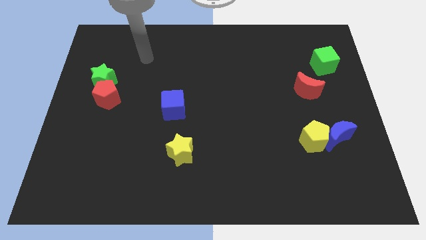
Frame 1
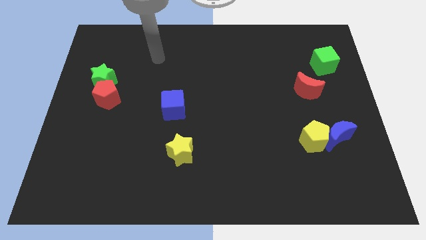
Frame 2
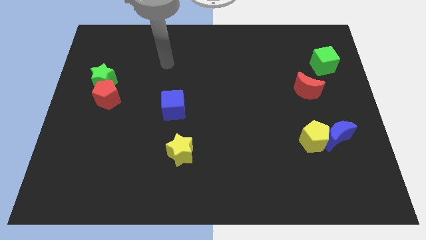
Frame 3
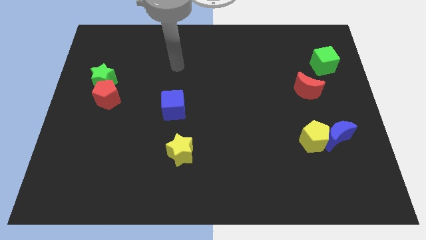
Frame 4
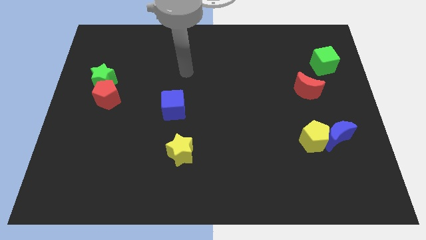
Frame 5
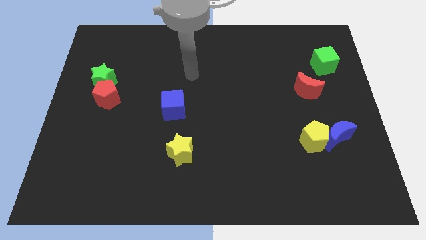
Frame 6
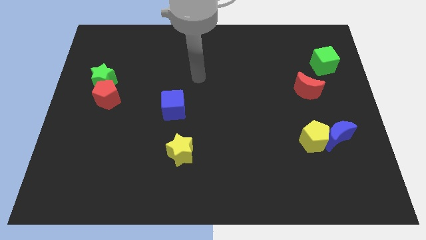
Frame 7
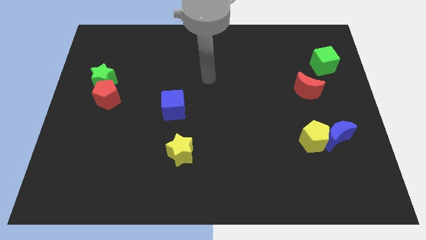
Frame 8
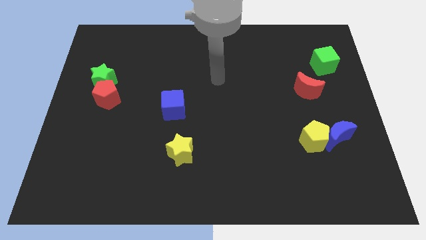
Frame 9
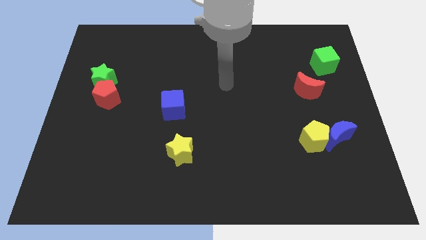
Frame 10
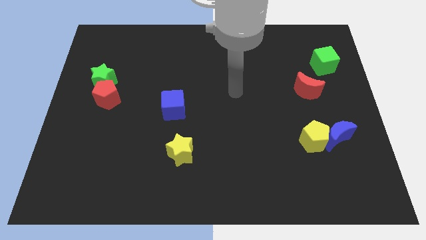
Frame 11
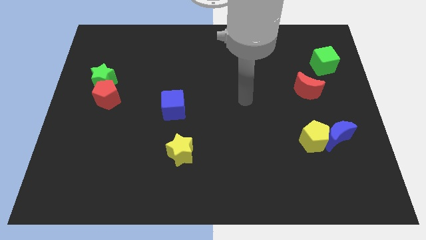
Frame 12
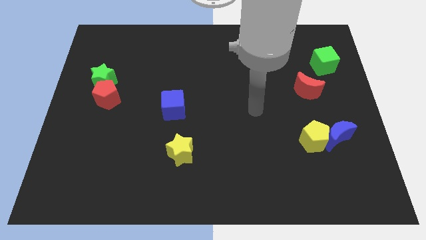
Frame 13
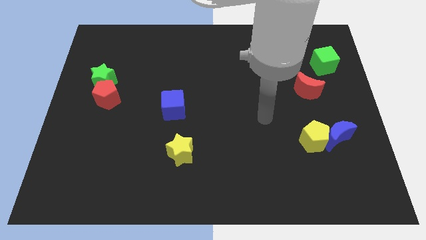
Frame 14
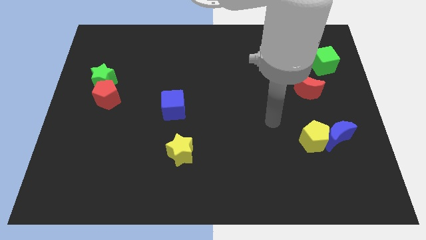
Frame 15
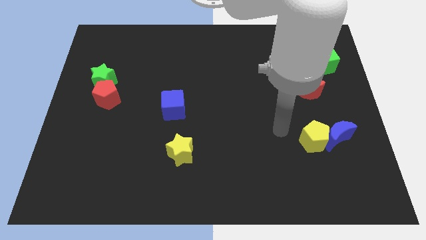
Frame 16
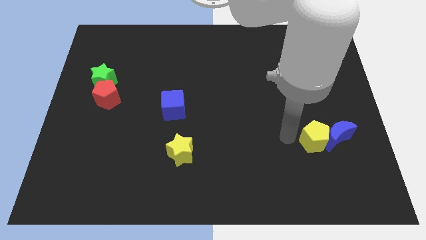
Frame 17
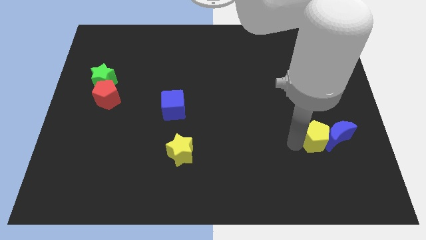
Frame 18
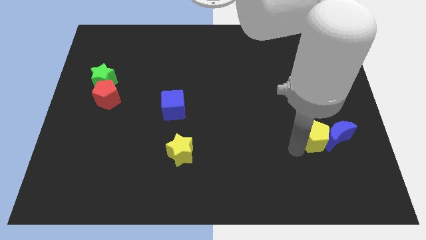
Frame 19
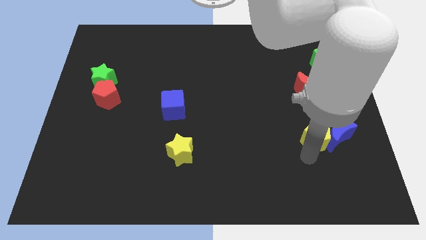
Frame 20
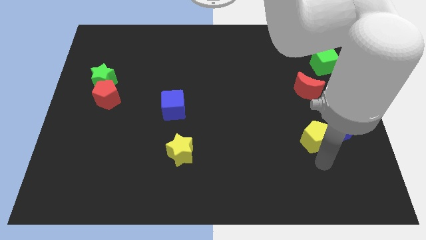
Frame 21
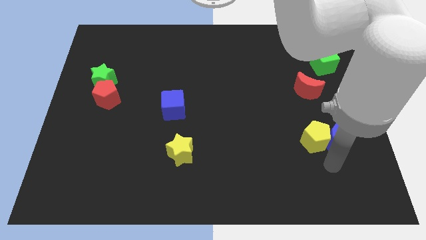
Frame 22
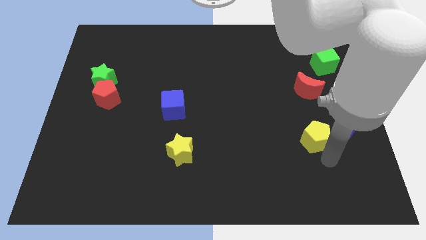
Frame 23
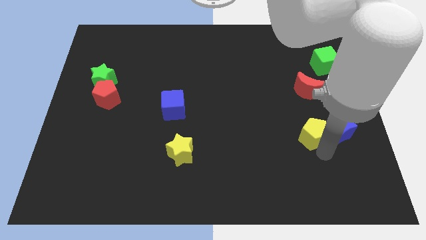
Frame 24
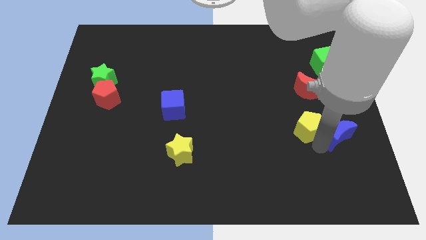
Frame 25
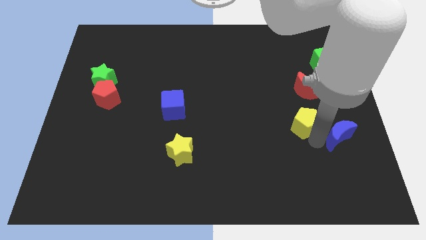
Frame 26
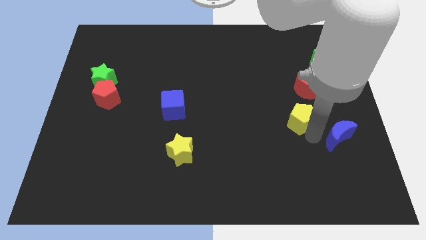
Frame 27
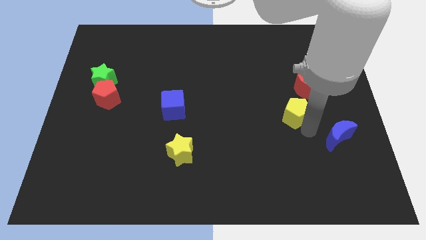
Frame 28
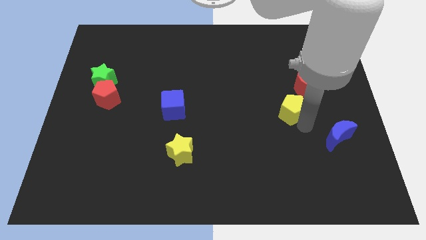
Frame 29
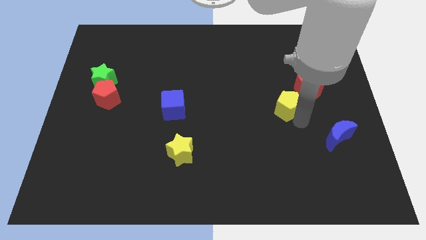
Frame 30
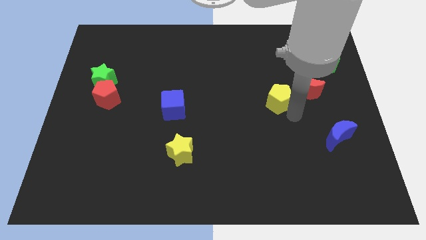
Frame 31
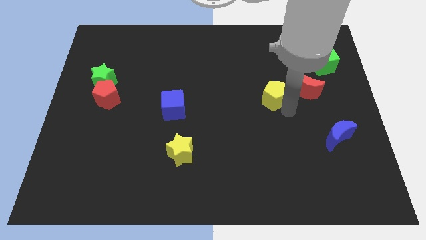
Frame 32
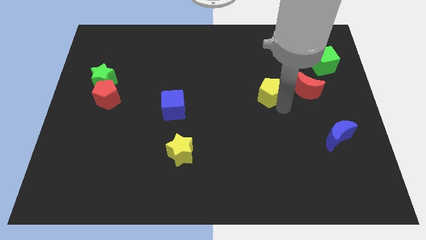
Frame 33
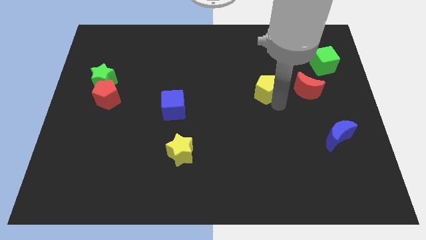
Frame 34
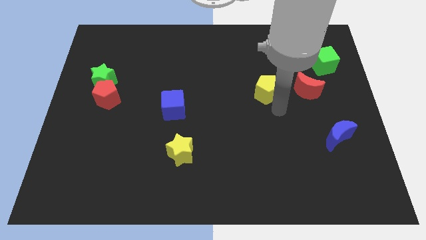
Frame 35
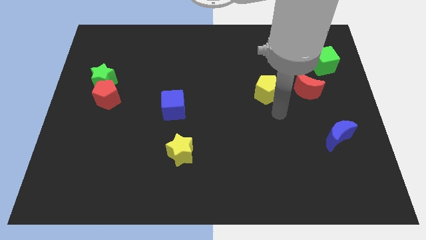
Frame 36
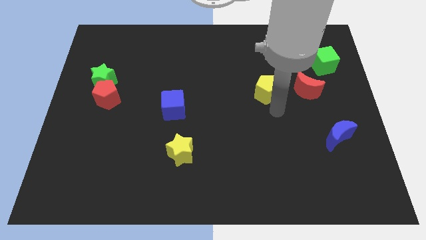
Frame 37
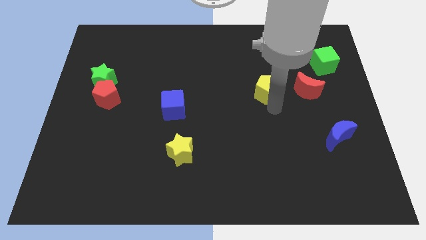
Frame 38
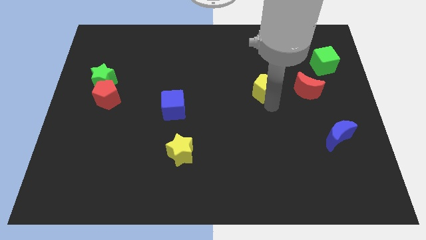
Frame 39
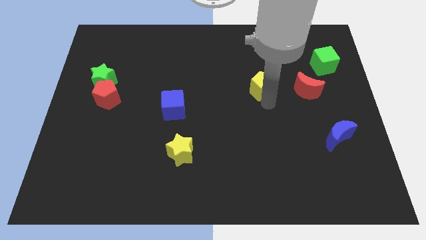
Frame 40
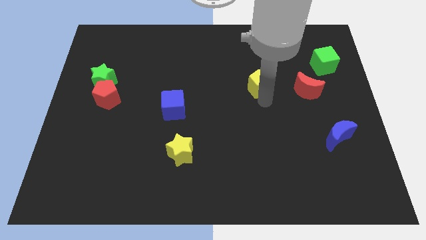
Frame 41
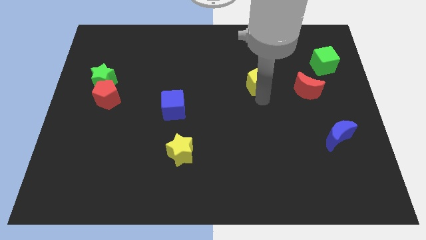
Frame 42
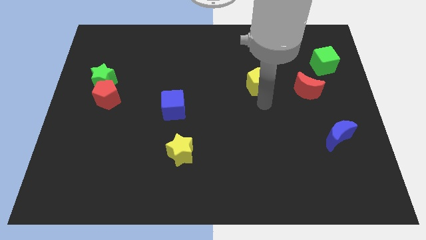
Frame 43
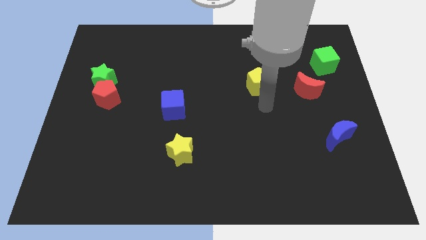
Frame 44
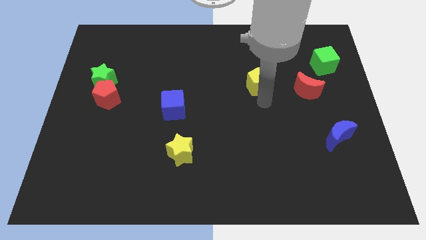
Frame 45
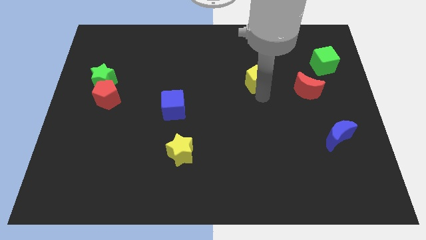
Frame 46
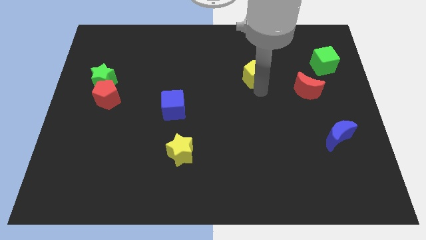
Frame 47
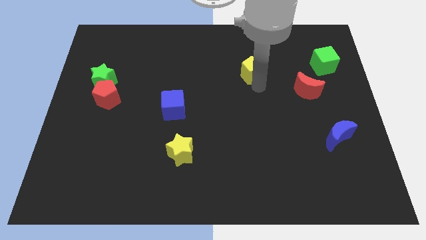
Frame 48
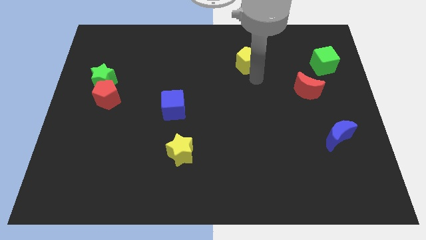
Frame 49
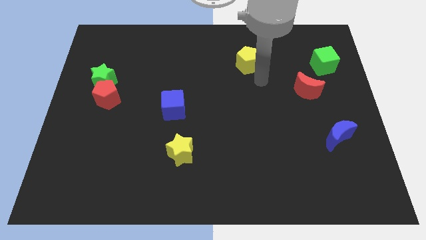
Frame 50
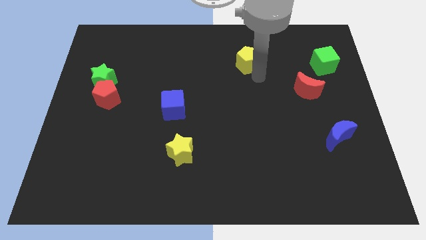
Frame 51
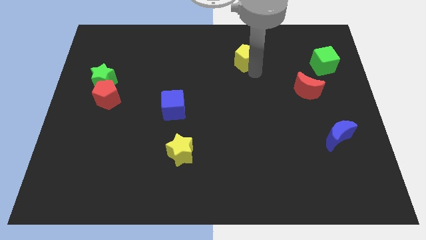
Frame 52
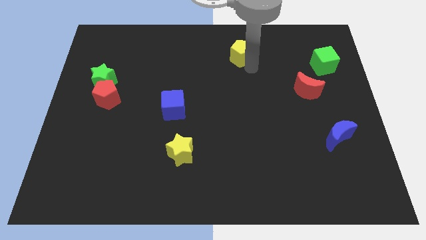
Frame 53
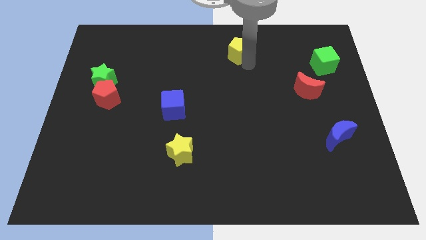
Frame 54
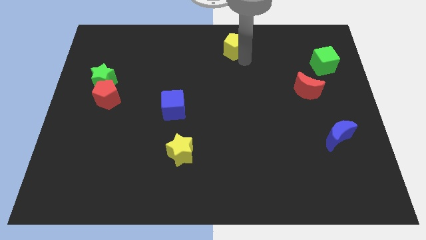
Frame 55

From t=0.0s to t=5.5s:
push the yellow pentagon to the top

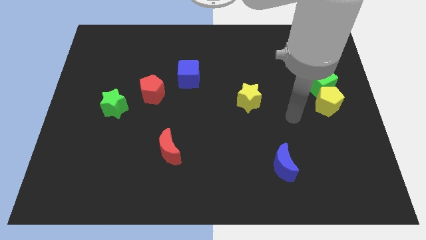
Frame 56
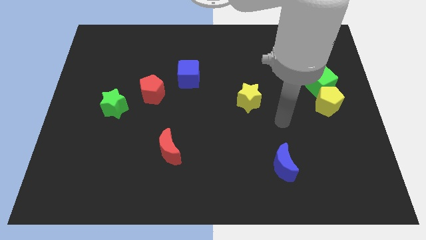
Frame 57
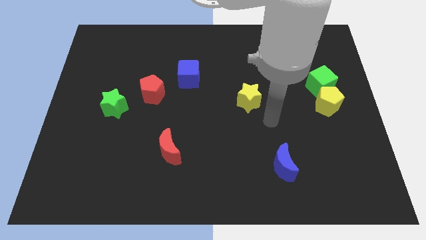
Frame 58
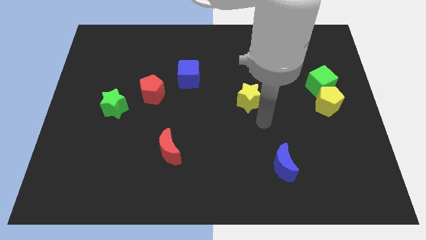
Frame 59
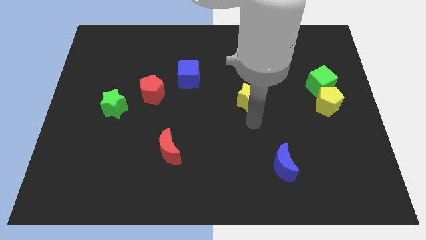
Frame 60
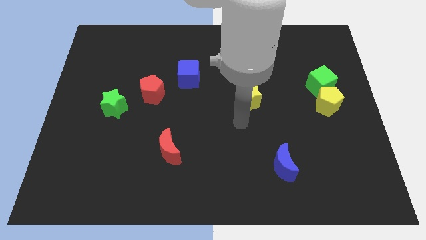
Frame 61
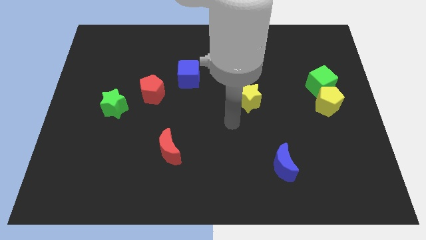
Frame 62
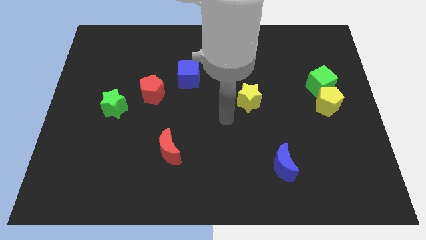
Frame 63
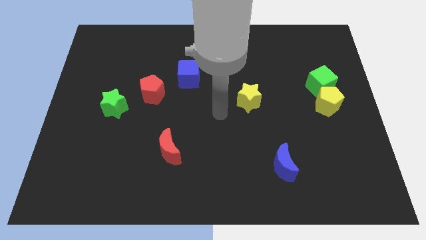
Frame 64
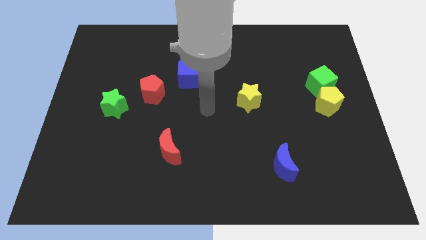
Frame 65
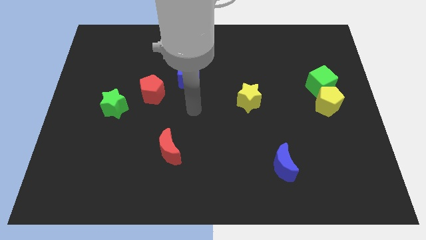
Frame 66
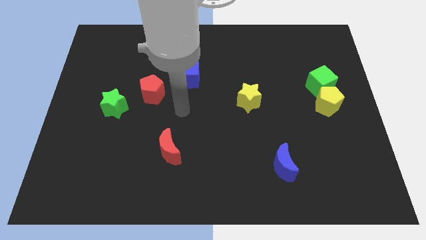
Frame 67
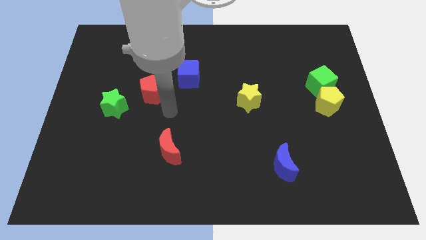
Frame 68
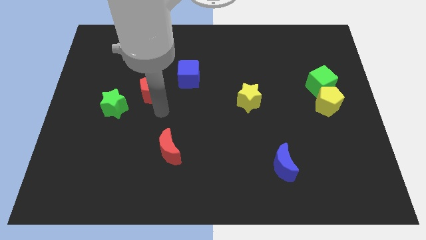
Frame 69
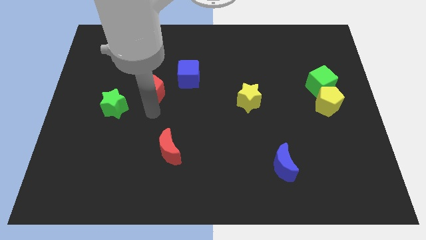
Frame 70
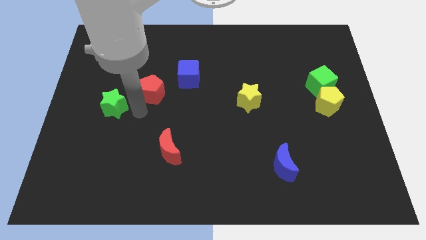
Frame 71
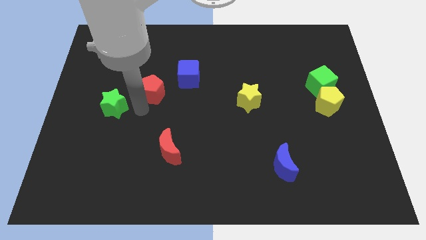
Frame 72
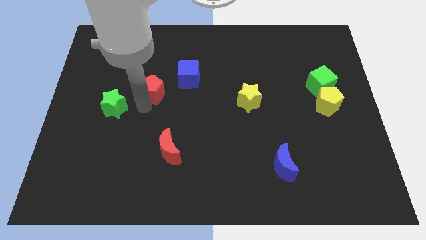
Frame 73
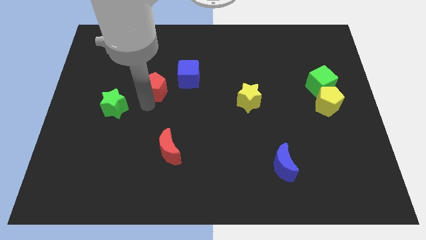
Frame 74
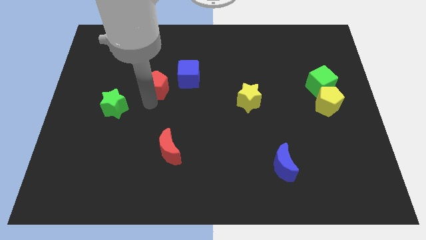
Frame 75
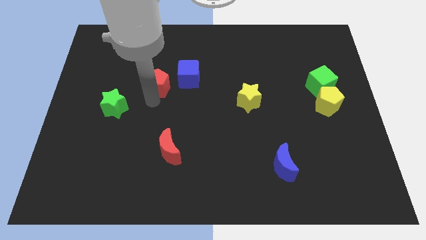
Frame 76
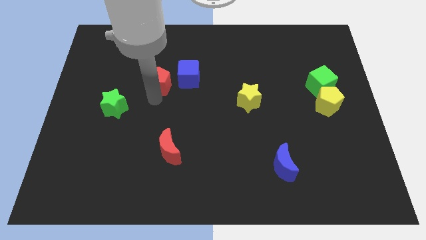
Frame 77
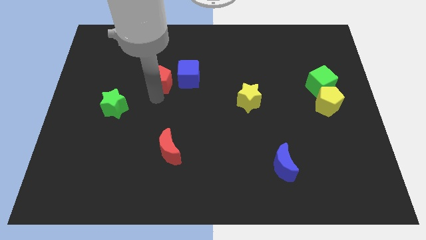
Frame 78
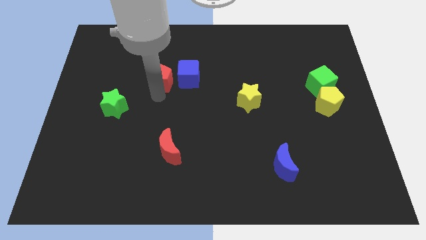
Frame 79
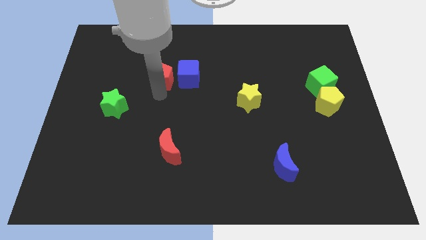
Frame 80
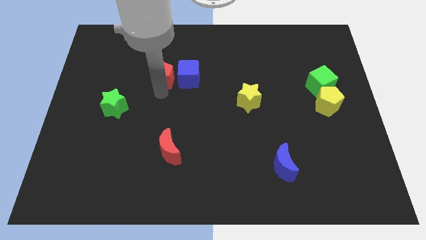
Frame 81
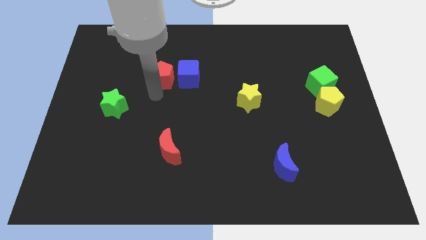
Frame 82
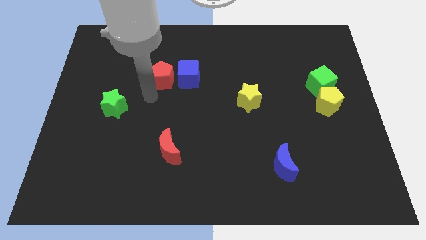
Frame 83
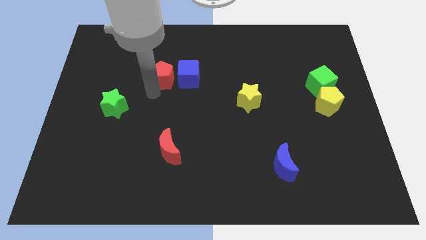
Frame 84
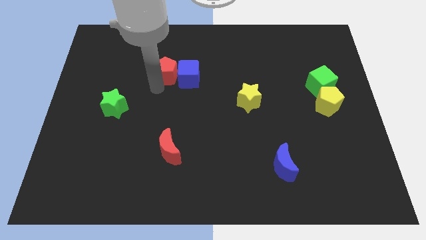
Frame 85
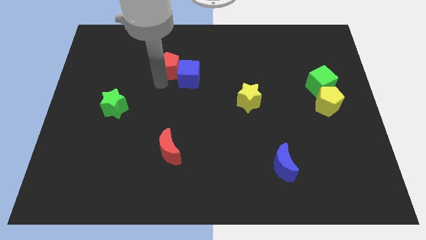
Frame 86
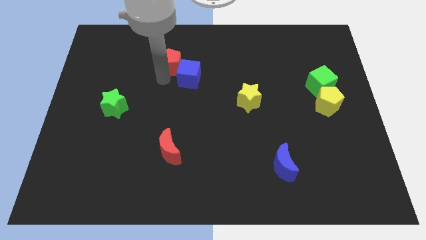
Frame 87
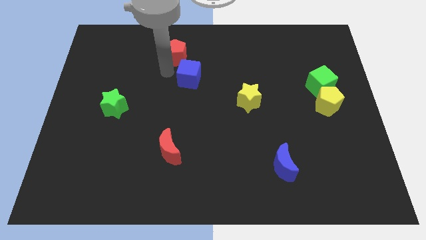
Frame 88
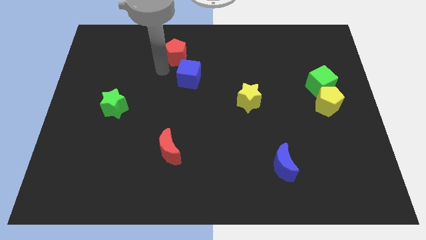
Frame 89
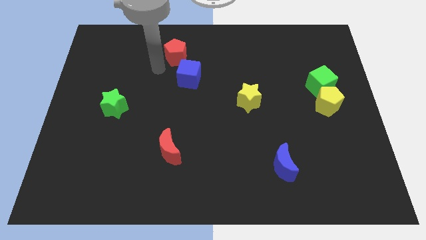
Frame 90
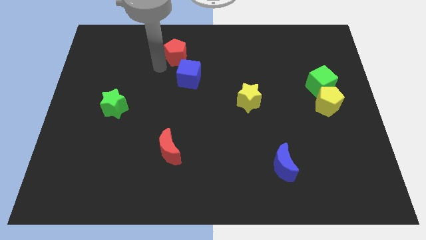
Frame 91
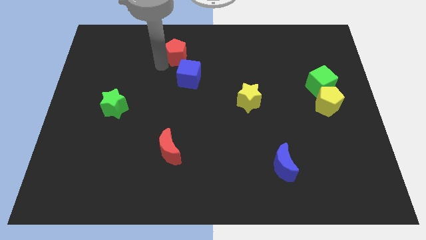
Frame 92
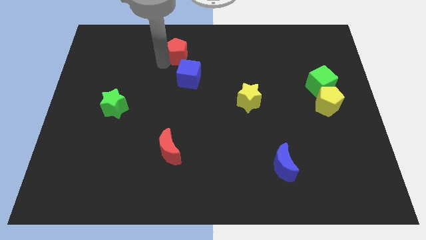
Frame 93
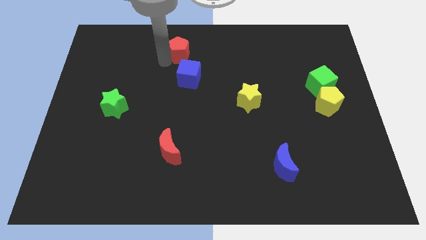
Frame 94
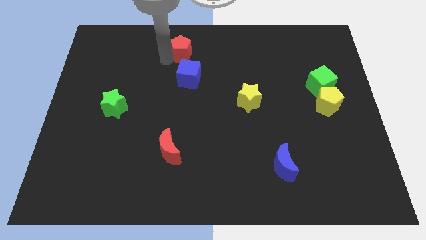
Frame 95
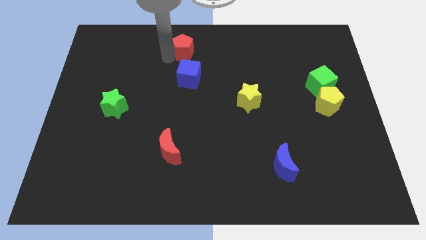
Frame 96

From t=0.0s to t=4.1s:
put the red pentagon to the top
